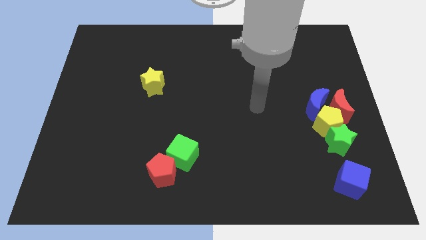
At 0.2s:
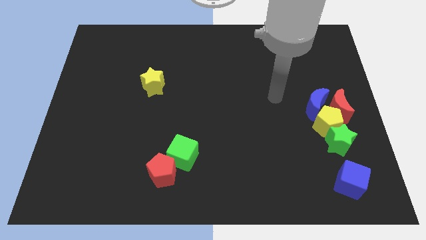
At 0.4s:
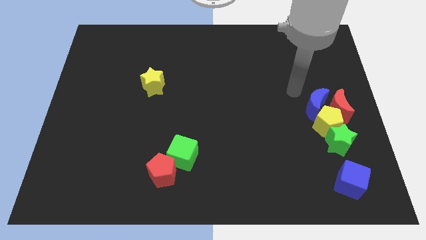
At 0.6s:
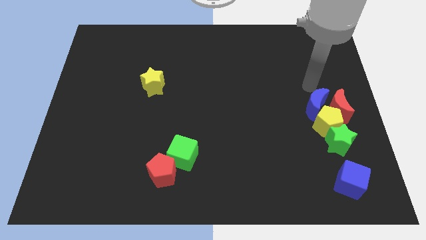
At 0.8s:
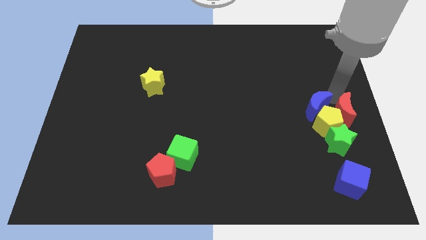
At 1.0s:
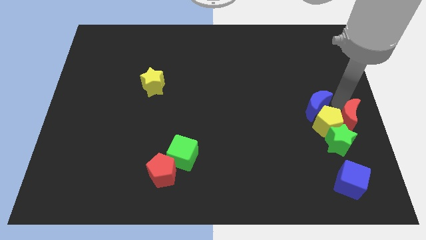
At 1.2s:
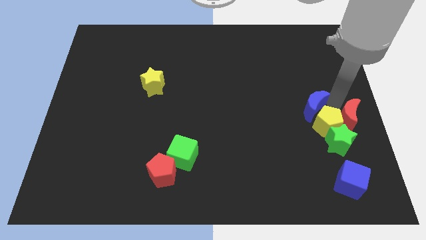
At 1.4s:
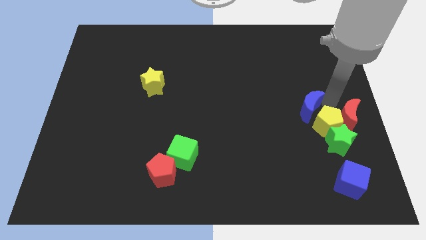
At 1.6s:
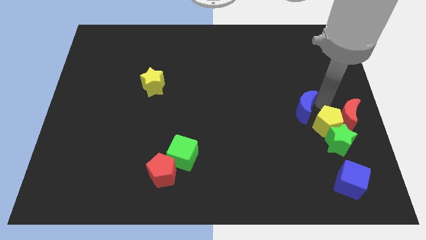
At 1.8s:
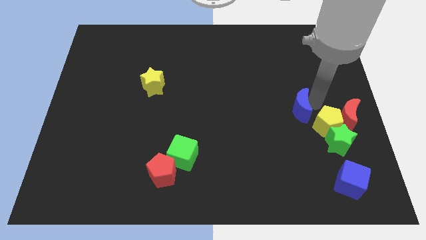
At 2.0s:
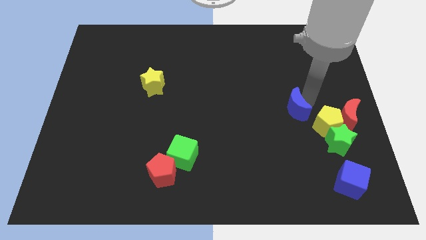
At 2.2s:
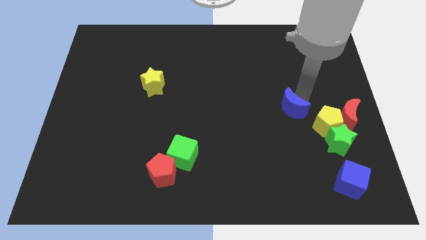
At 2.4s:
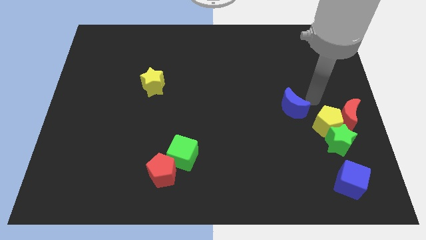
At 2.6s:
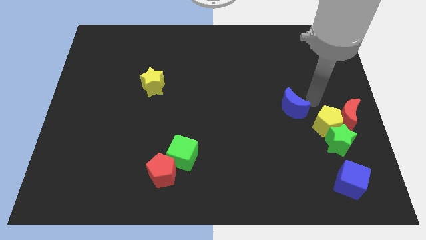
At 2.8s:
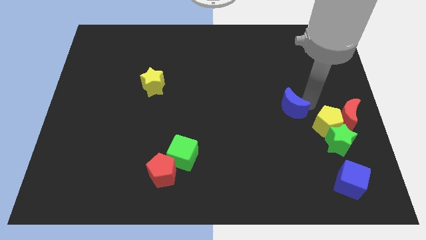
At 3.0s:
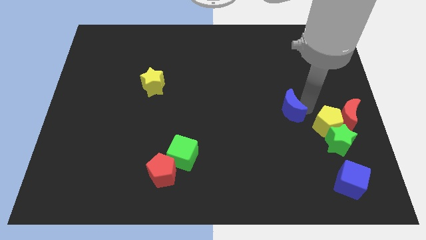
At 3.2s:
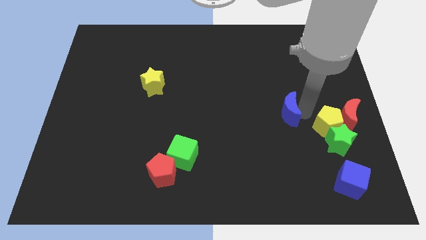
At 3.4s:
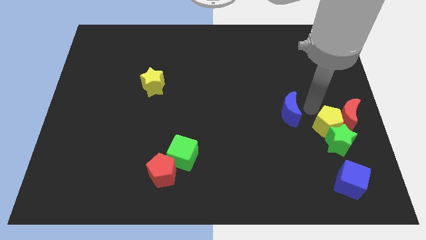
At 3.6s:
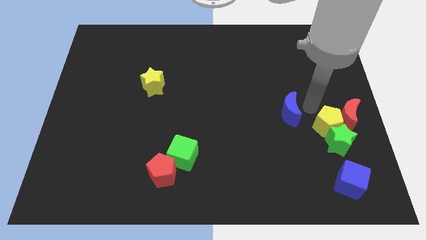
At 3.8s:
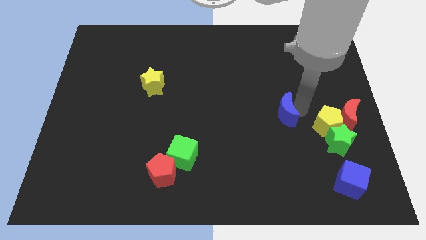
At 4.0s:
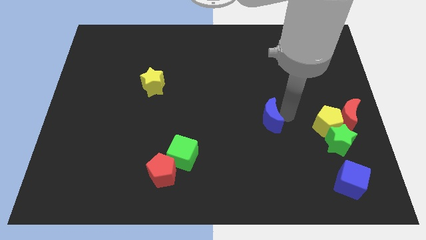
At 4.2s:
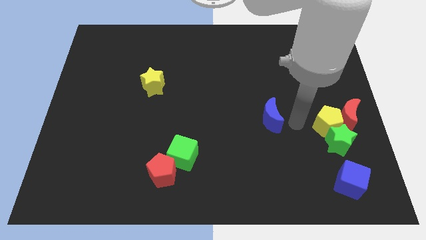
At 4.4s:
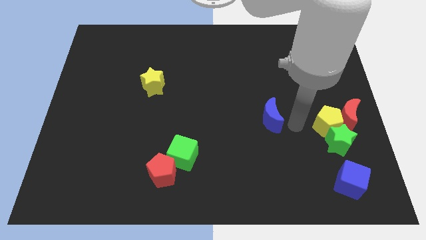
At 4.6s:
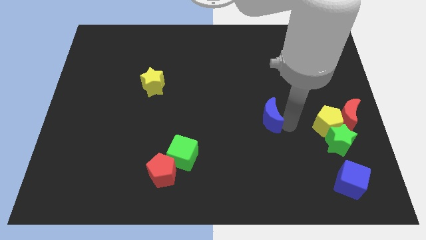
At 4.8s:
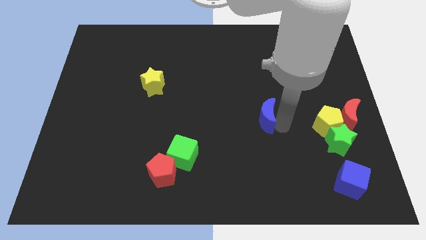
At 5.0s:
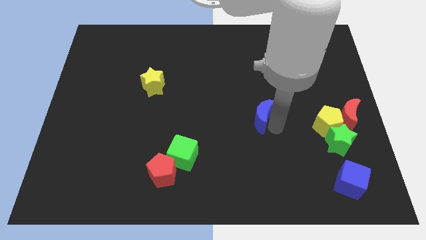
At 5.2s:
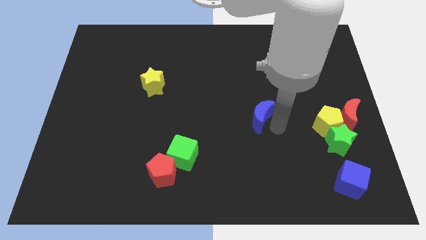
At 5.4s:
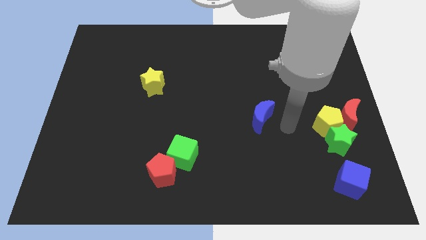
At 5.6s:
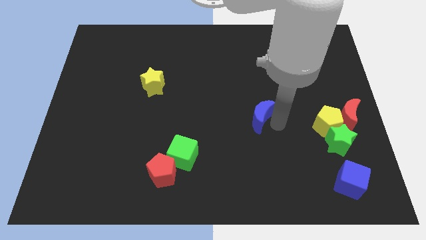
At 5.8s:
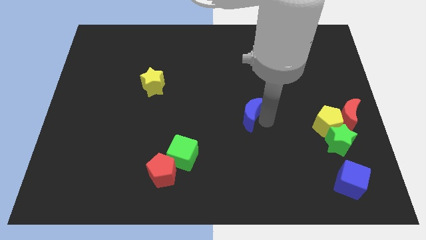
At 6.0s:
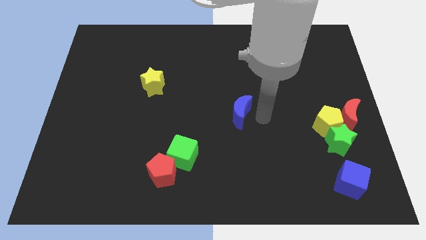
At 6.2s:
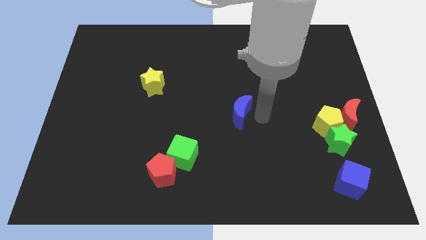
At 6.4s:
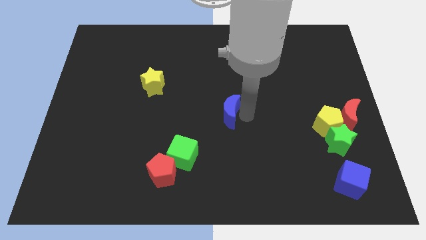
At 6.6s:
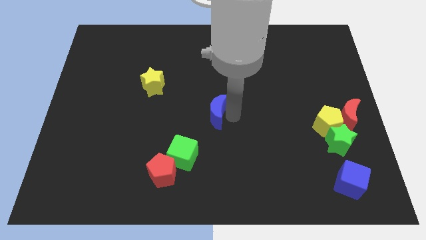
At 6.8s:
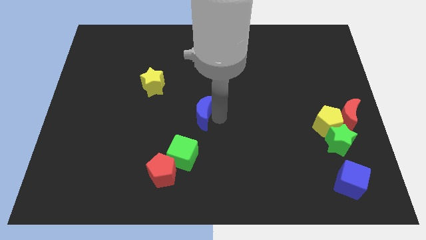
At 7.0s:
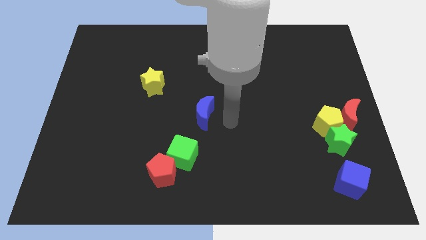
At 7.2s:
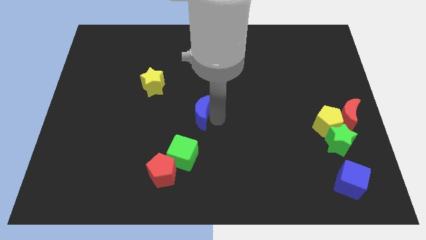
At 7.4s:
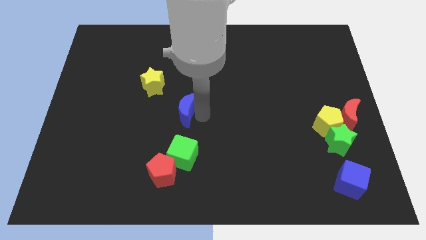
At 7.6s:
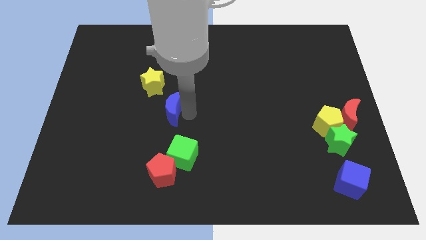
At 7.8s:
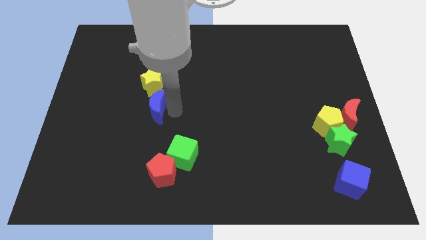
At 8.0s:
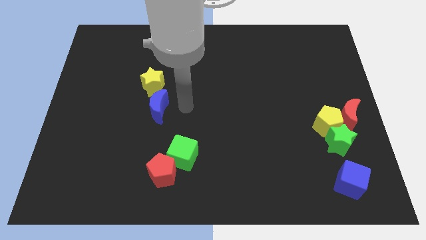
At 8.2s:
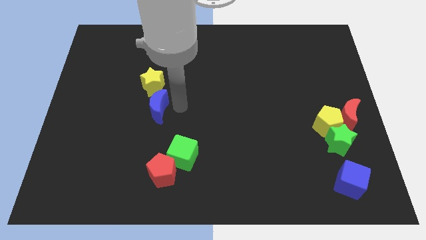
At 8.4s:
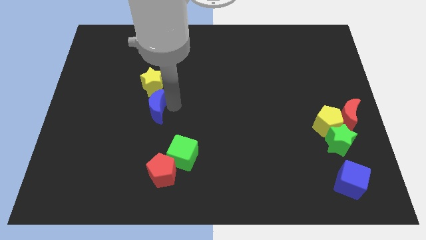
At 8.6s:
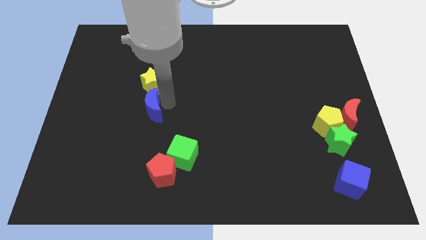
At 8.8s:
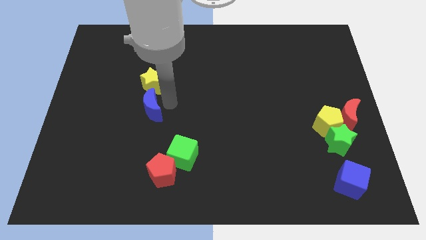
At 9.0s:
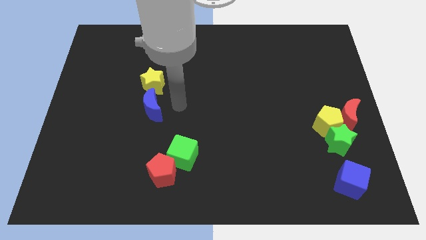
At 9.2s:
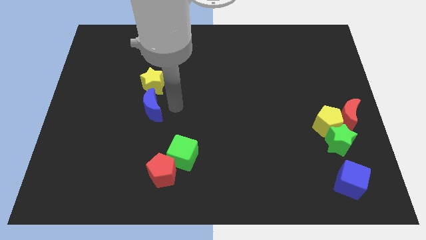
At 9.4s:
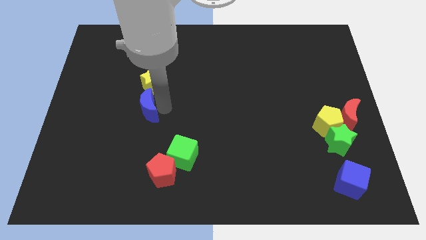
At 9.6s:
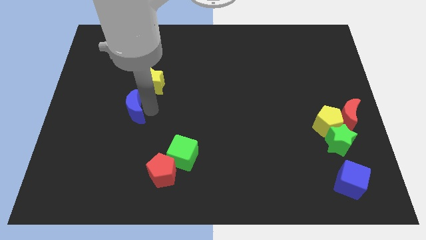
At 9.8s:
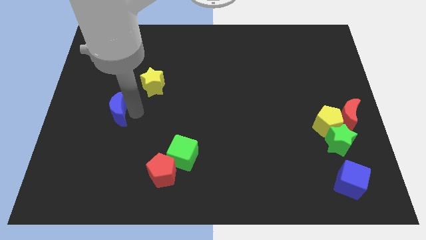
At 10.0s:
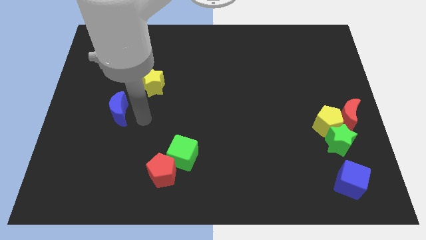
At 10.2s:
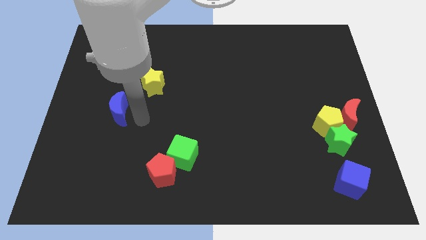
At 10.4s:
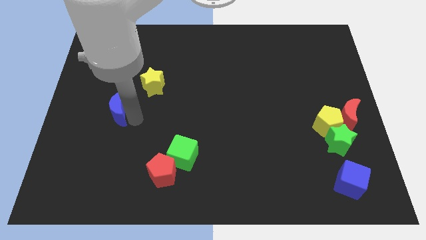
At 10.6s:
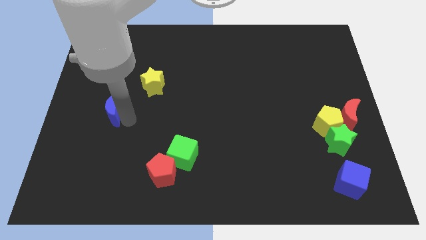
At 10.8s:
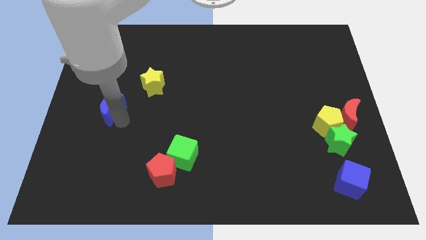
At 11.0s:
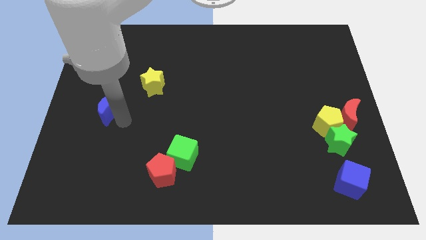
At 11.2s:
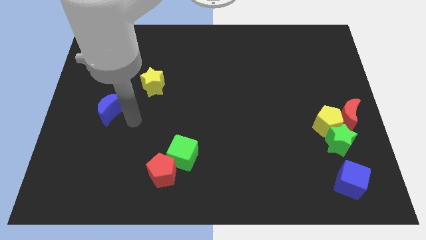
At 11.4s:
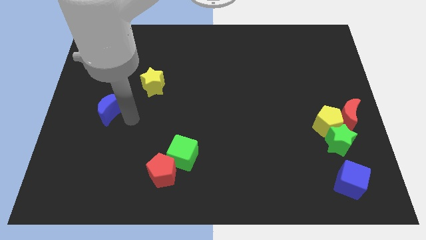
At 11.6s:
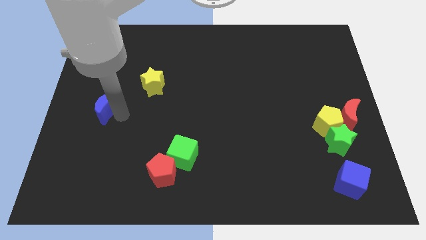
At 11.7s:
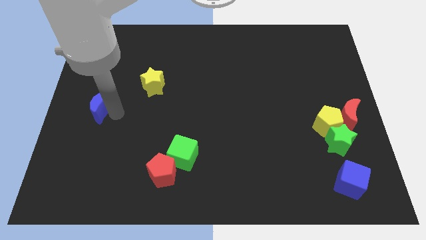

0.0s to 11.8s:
slide the blue moon to the center left

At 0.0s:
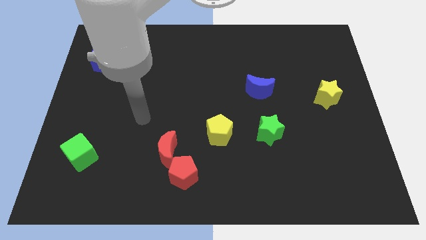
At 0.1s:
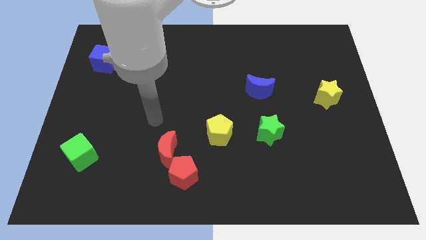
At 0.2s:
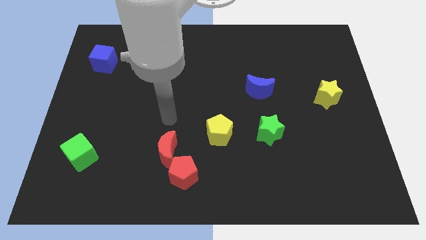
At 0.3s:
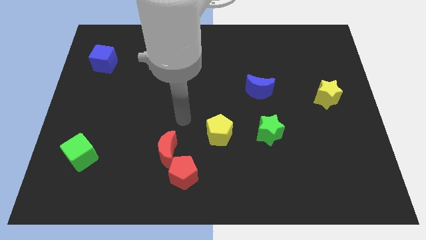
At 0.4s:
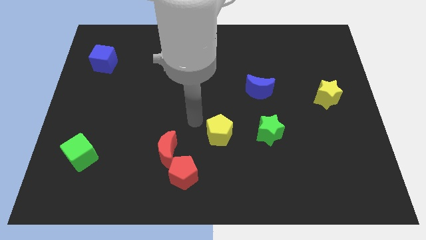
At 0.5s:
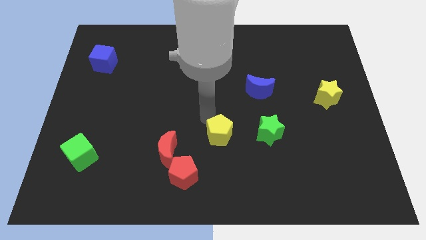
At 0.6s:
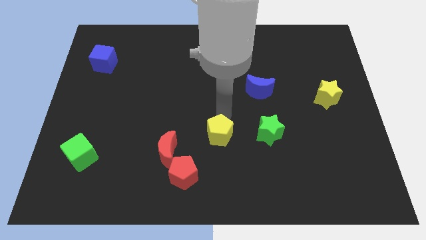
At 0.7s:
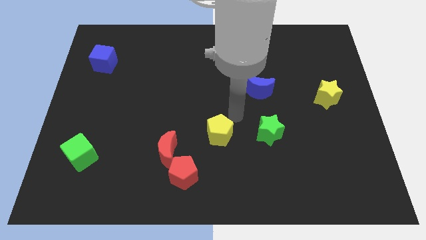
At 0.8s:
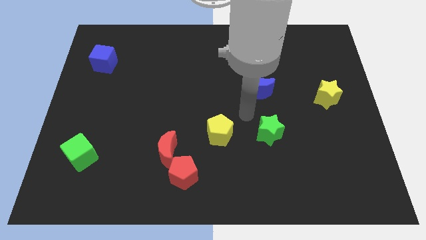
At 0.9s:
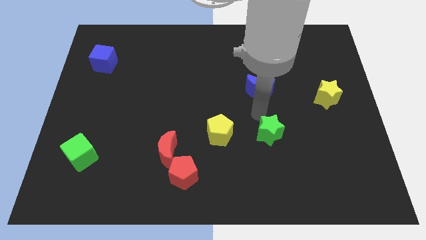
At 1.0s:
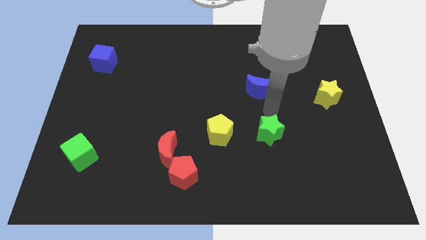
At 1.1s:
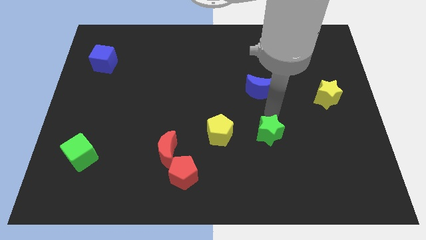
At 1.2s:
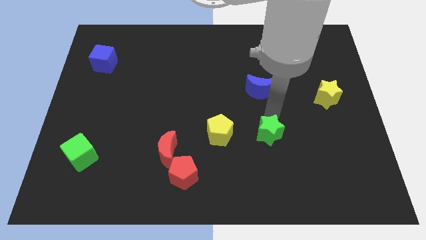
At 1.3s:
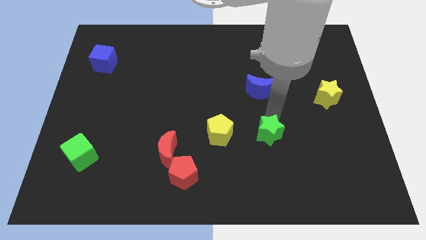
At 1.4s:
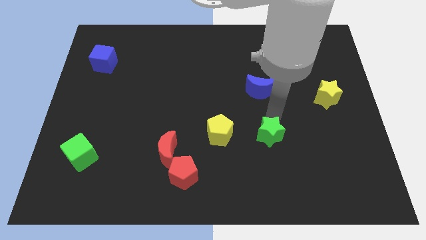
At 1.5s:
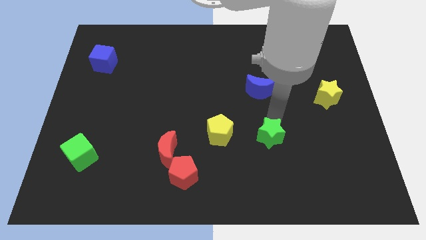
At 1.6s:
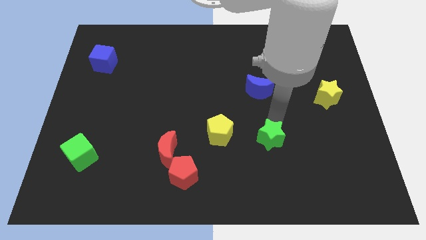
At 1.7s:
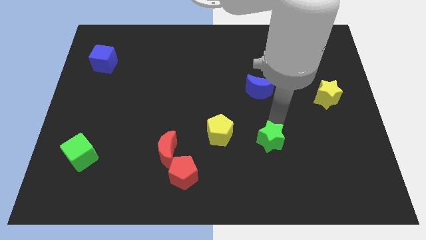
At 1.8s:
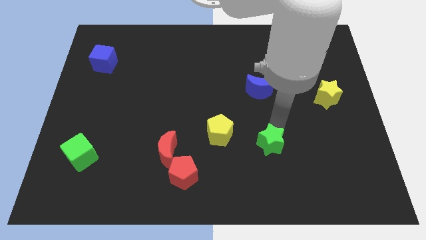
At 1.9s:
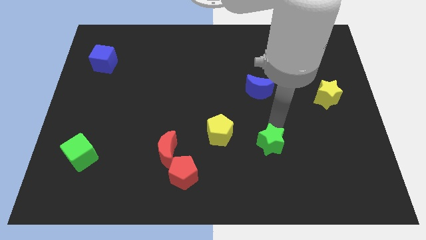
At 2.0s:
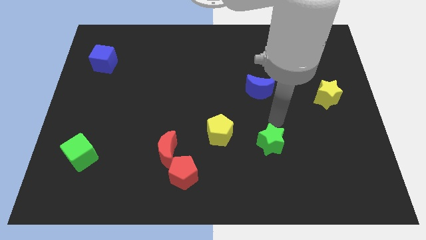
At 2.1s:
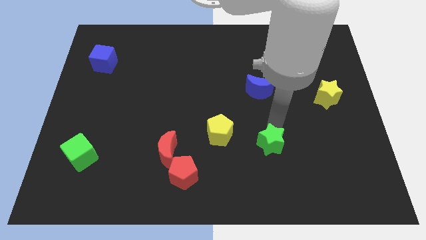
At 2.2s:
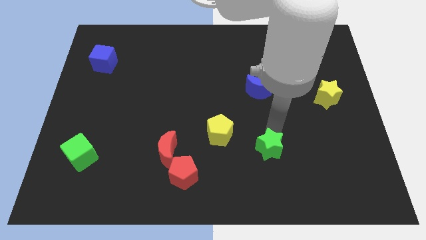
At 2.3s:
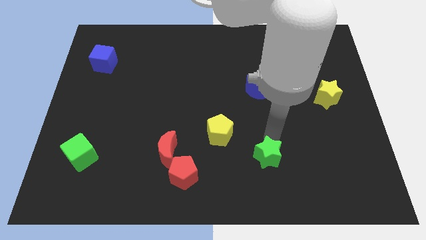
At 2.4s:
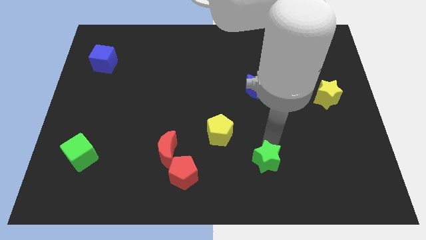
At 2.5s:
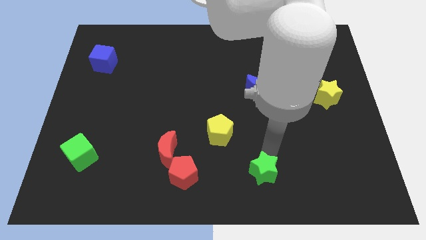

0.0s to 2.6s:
put the green star to the bottom
